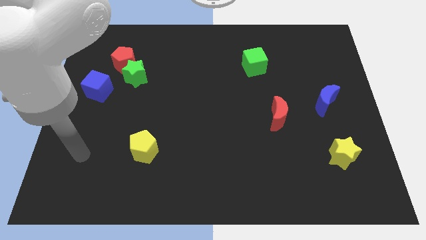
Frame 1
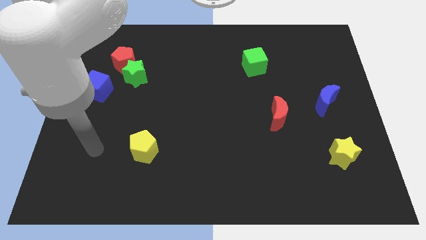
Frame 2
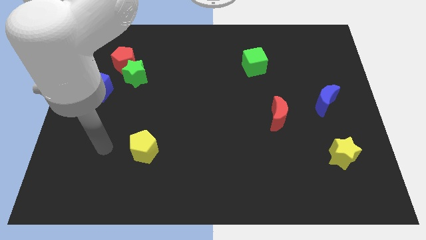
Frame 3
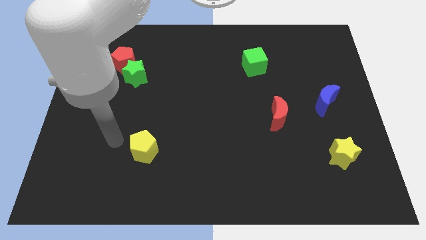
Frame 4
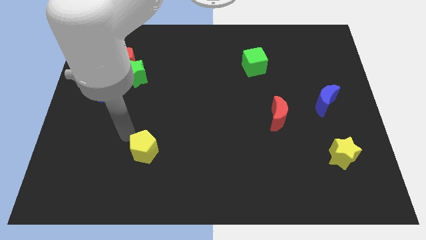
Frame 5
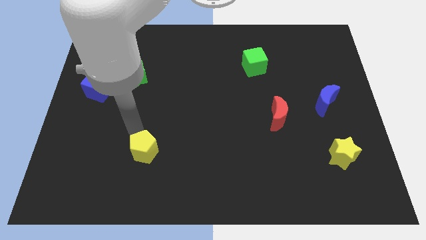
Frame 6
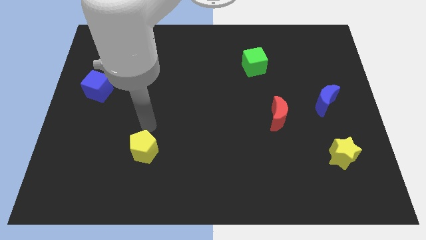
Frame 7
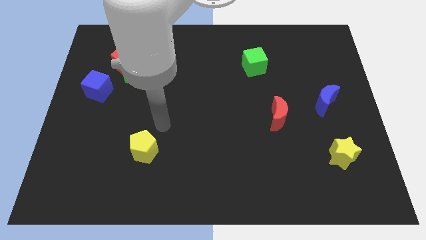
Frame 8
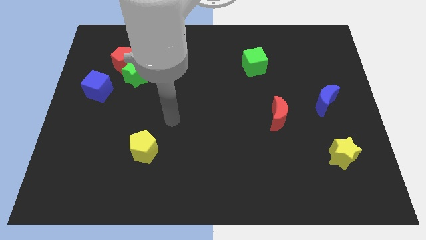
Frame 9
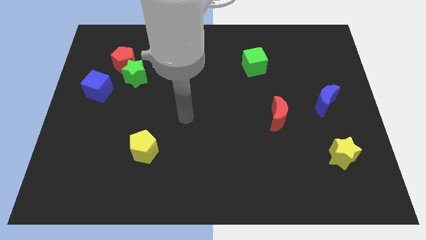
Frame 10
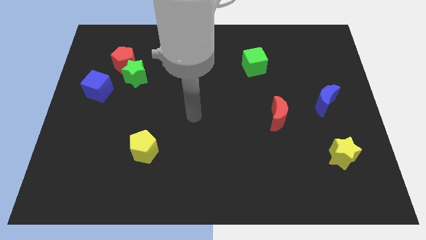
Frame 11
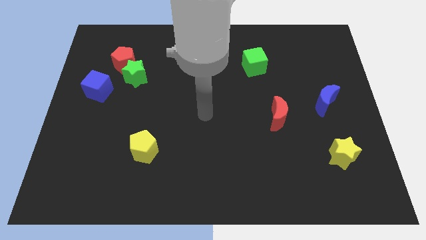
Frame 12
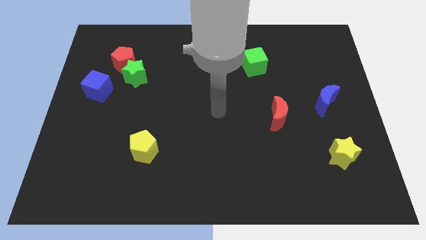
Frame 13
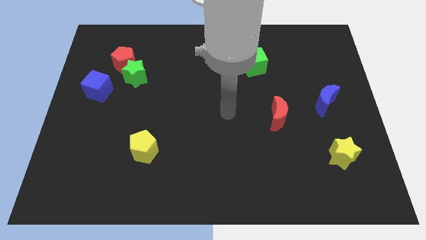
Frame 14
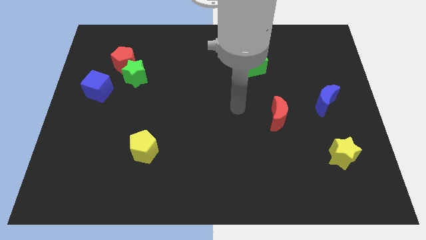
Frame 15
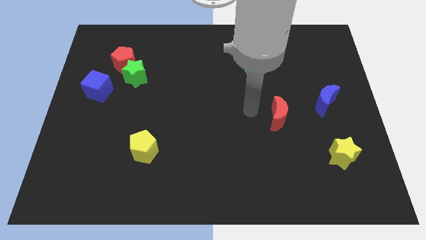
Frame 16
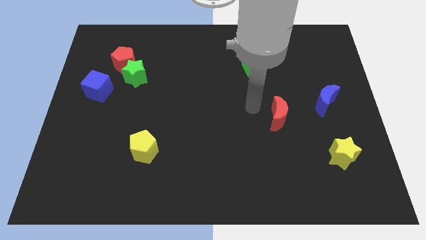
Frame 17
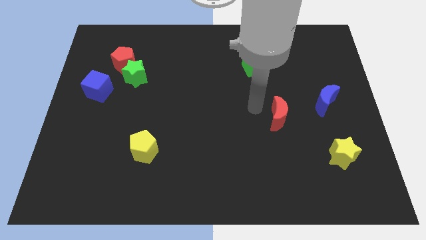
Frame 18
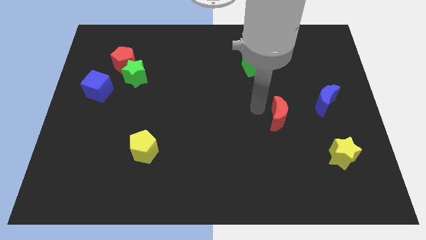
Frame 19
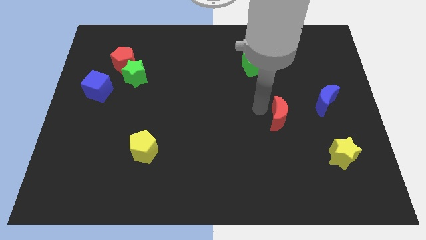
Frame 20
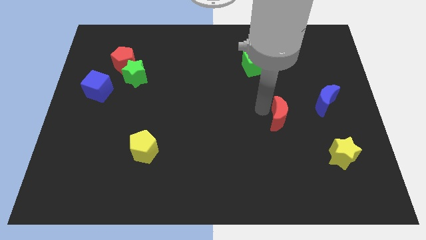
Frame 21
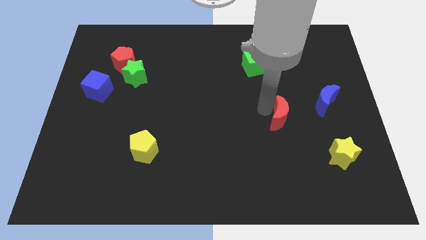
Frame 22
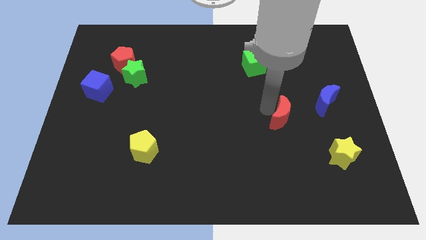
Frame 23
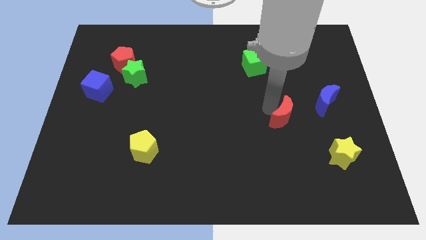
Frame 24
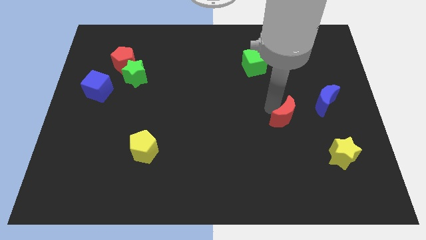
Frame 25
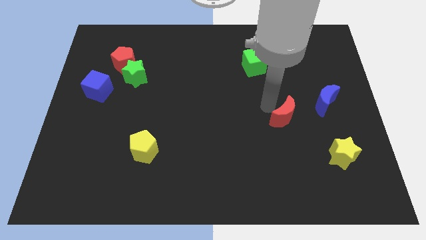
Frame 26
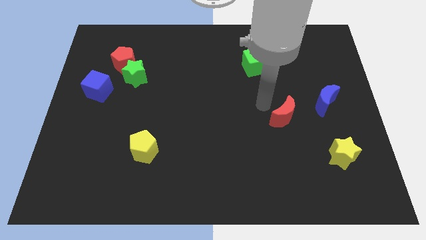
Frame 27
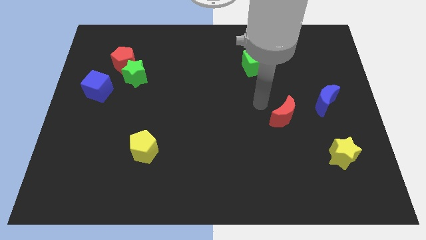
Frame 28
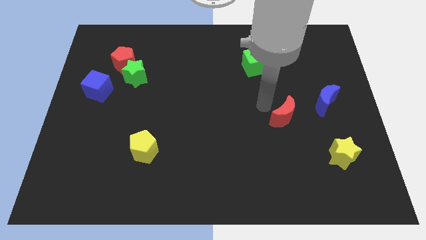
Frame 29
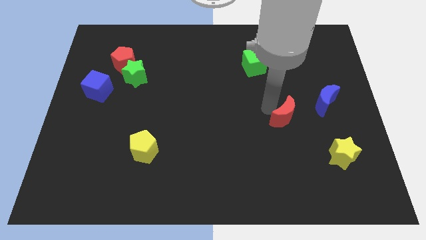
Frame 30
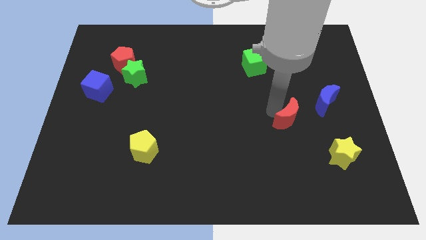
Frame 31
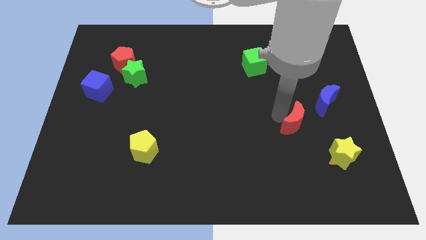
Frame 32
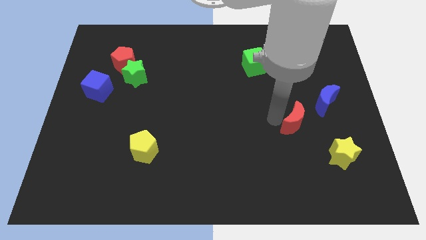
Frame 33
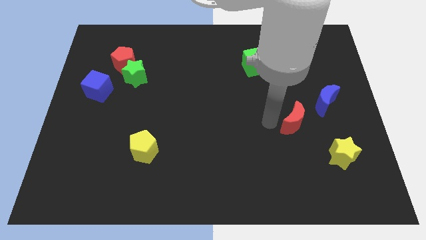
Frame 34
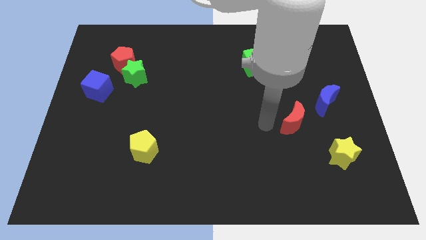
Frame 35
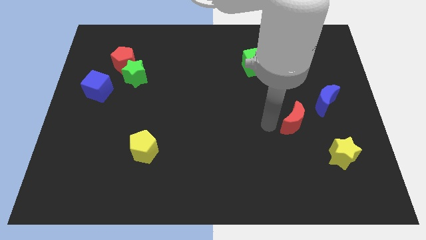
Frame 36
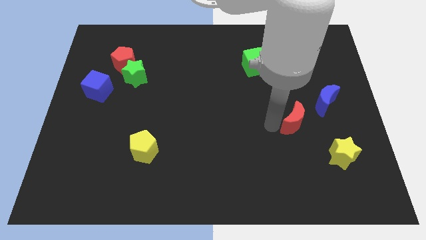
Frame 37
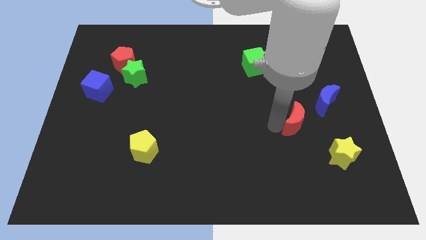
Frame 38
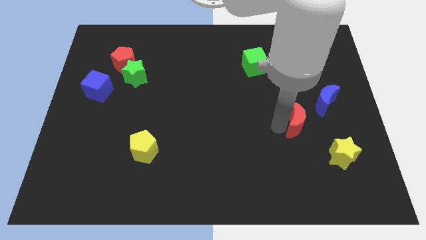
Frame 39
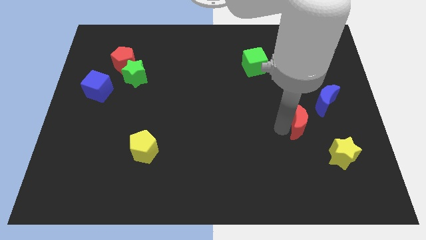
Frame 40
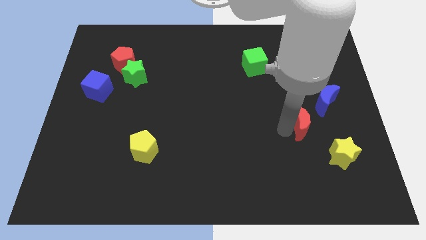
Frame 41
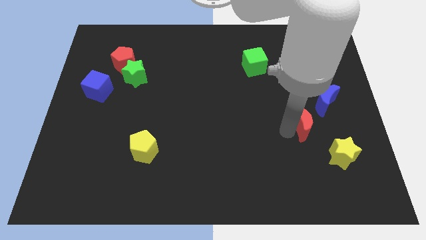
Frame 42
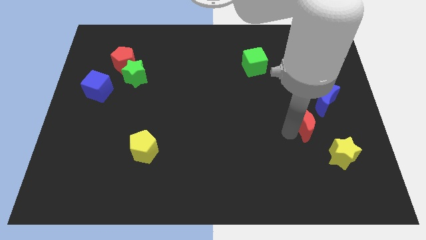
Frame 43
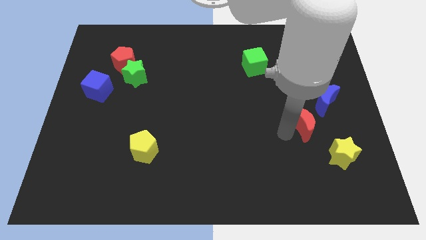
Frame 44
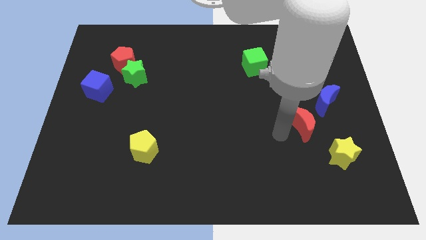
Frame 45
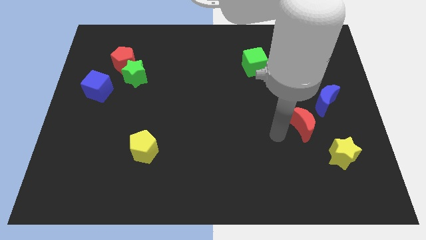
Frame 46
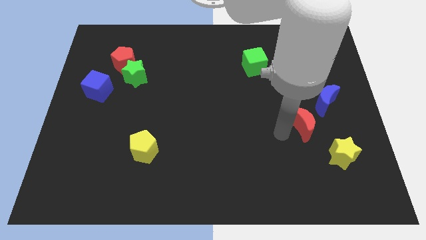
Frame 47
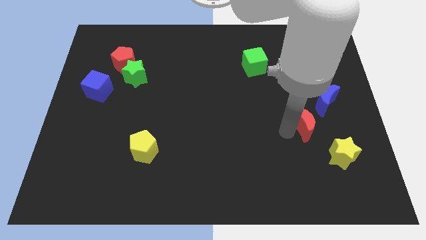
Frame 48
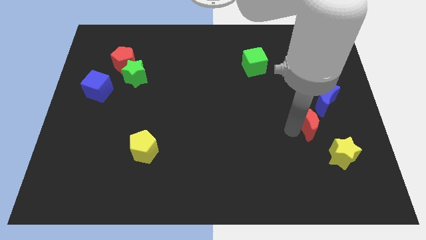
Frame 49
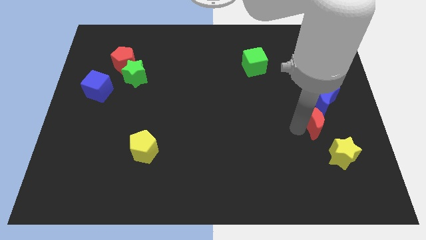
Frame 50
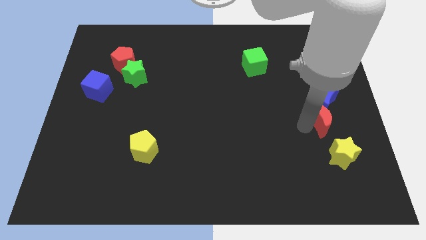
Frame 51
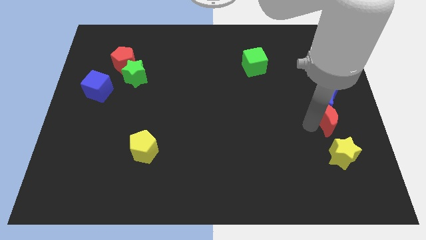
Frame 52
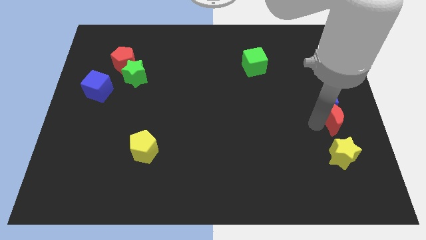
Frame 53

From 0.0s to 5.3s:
put the red moon to the right side

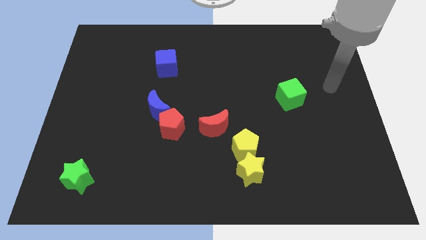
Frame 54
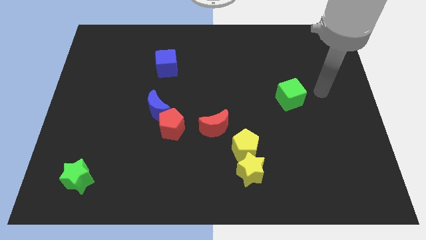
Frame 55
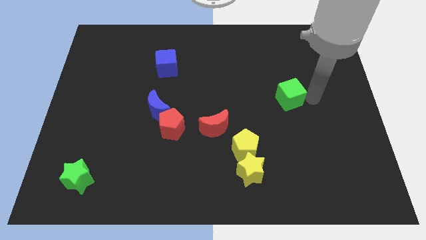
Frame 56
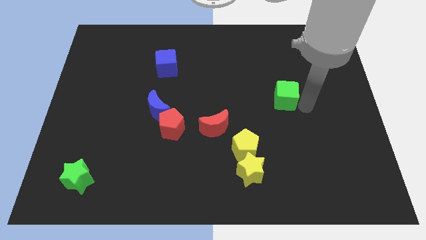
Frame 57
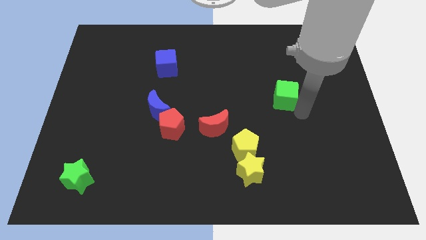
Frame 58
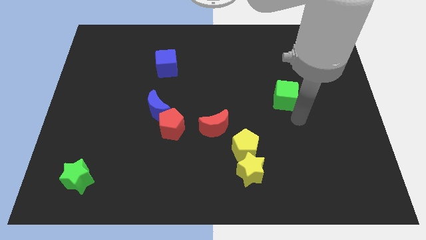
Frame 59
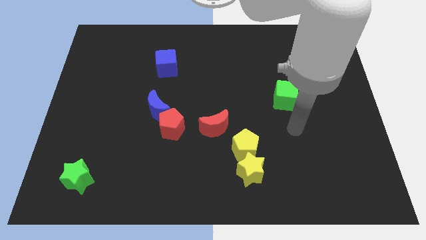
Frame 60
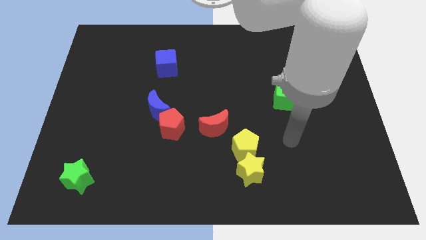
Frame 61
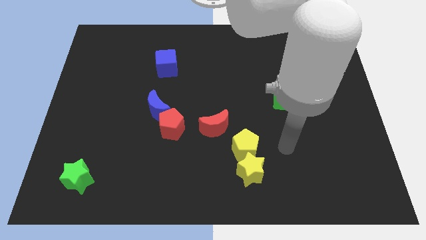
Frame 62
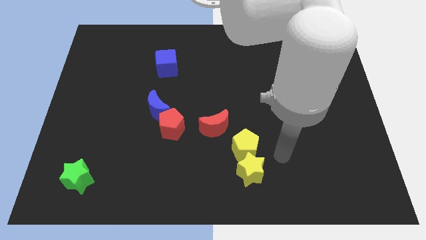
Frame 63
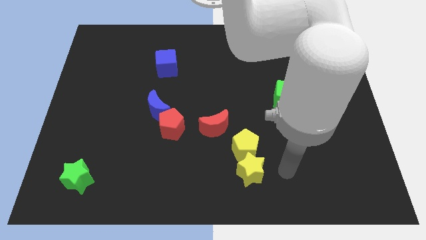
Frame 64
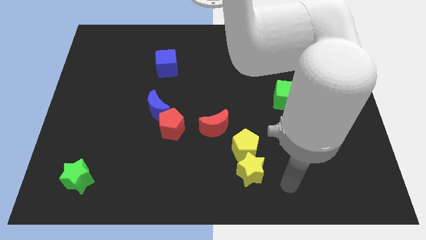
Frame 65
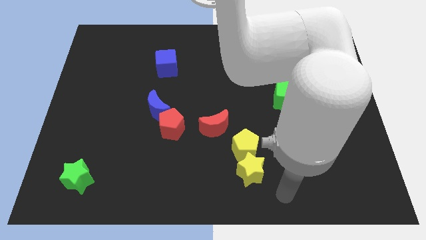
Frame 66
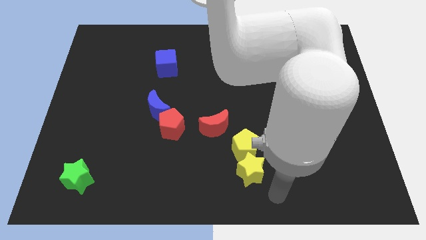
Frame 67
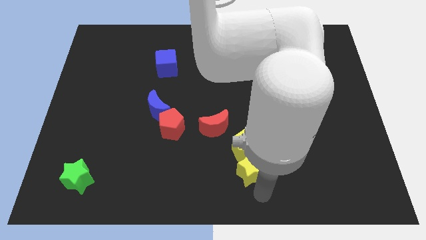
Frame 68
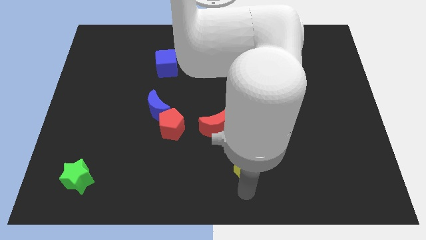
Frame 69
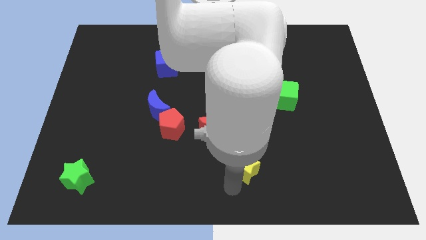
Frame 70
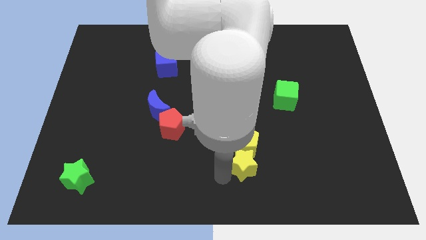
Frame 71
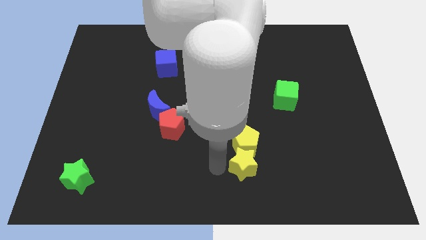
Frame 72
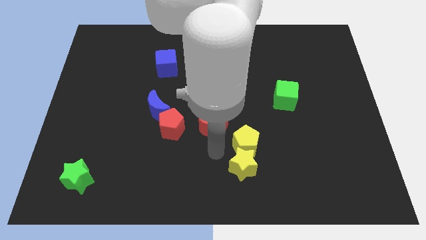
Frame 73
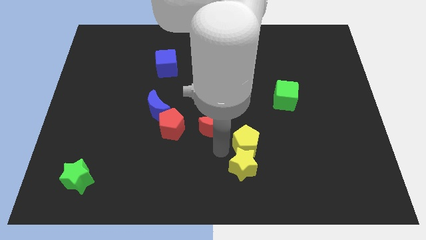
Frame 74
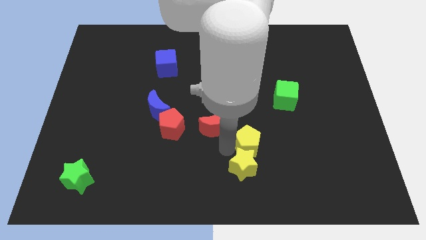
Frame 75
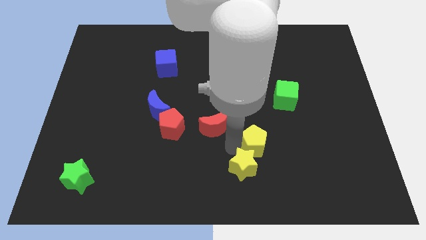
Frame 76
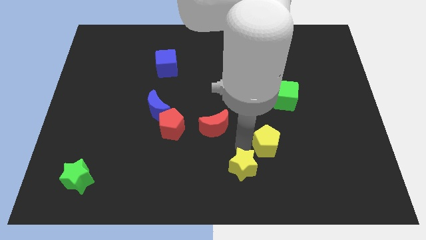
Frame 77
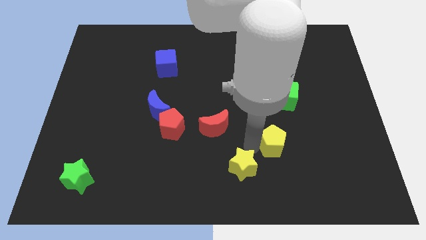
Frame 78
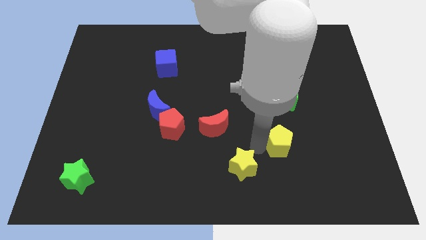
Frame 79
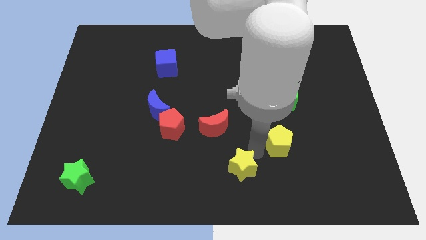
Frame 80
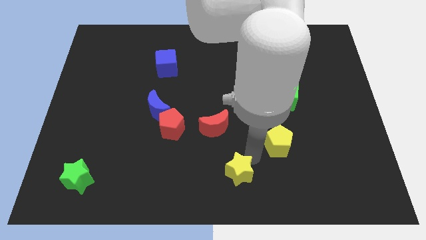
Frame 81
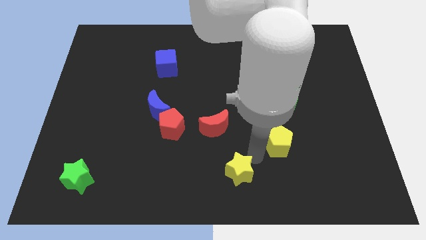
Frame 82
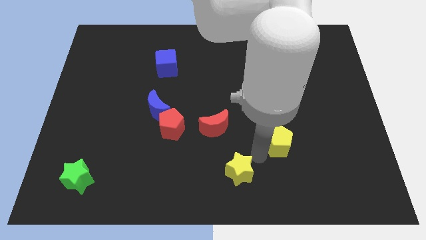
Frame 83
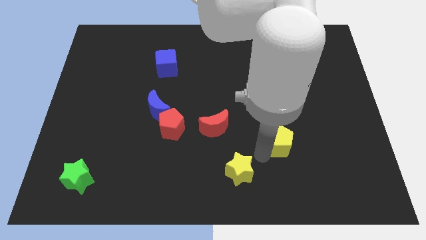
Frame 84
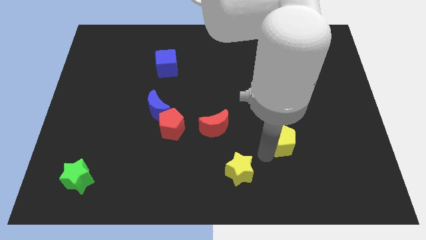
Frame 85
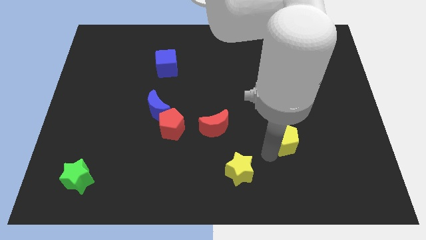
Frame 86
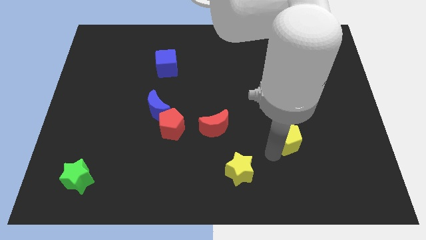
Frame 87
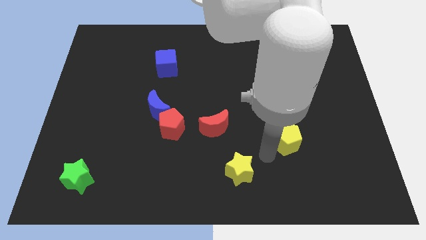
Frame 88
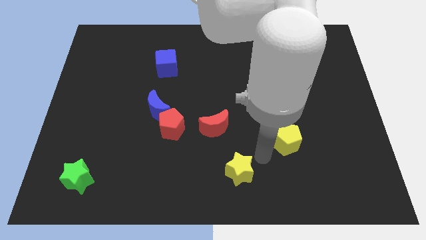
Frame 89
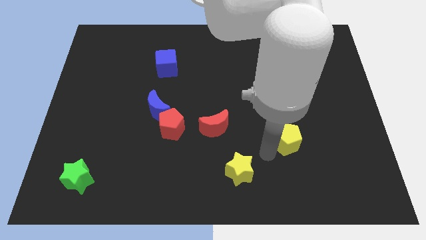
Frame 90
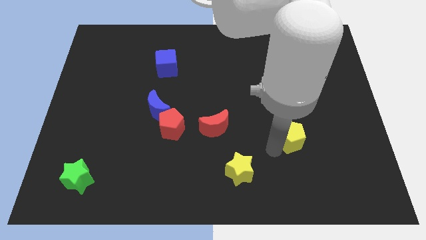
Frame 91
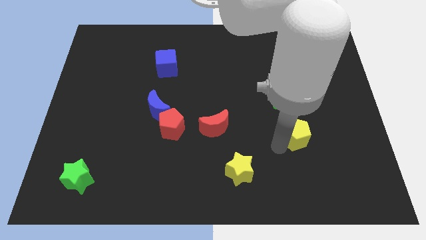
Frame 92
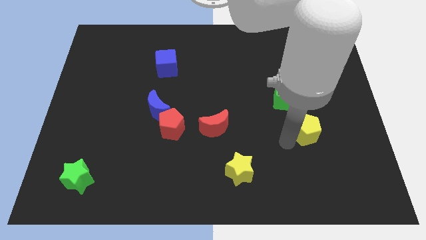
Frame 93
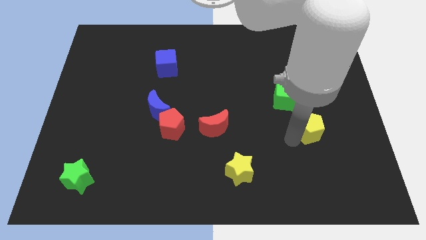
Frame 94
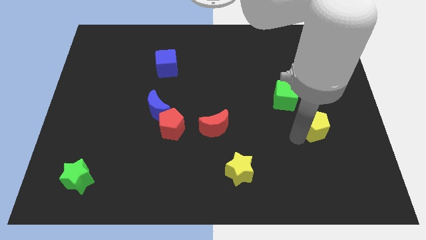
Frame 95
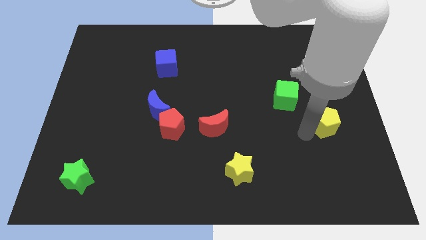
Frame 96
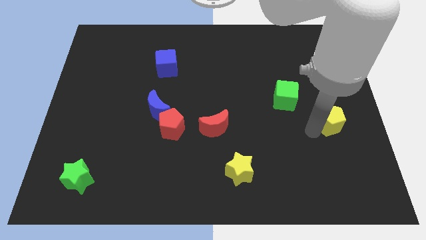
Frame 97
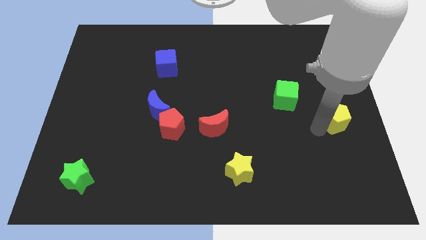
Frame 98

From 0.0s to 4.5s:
put the yellow pentagon to the center right
